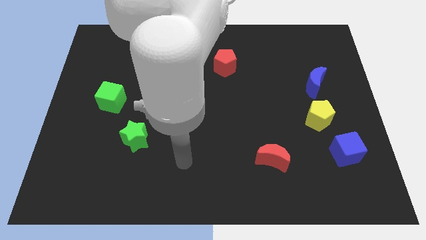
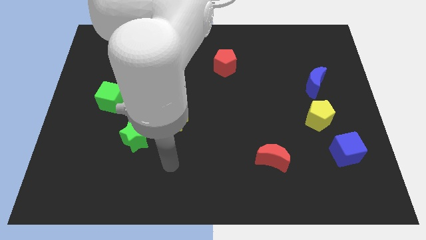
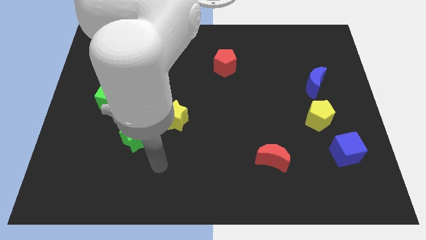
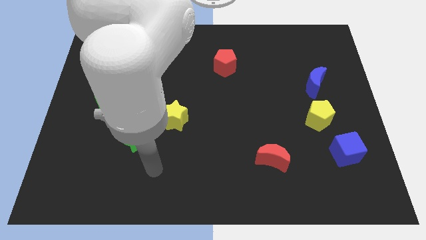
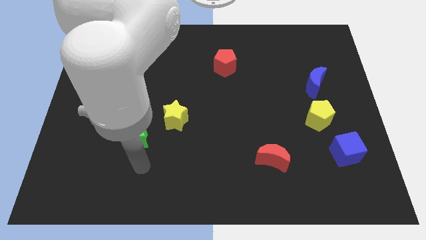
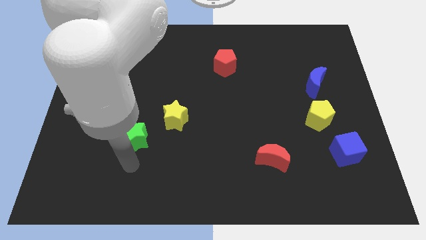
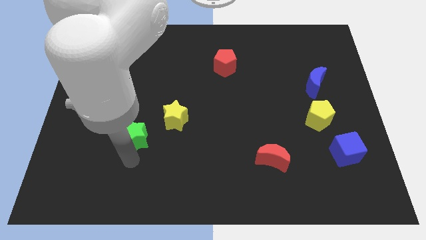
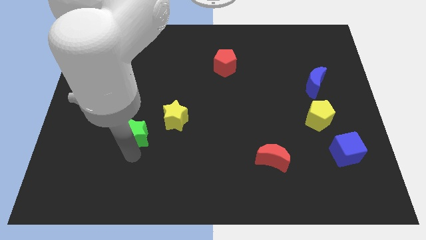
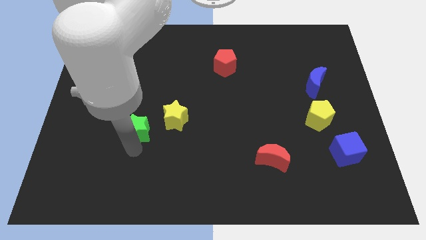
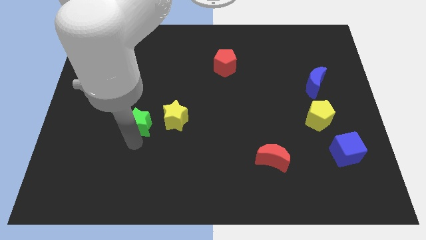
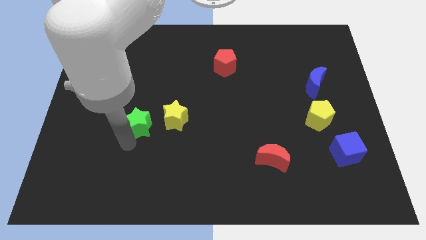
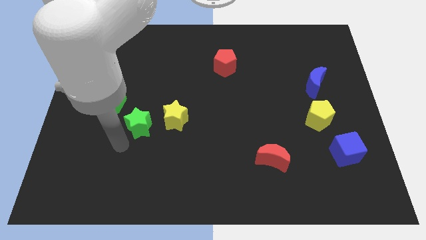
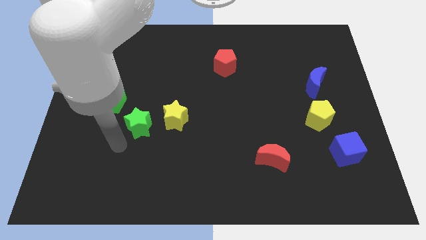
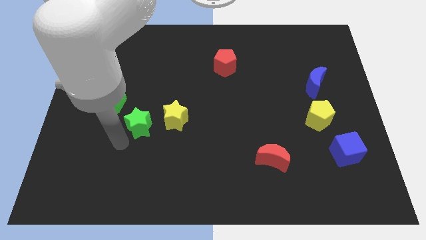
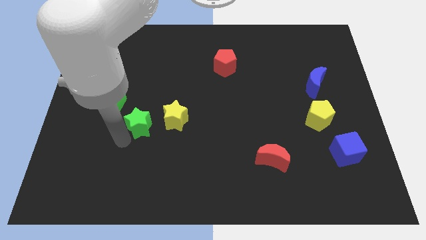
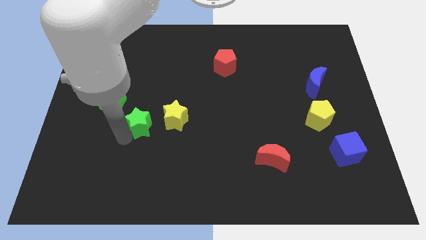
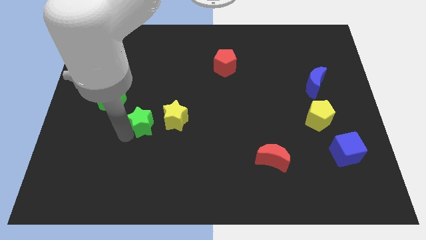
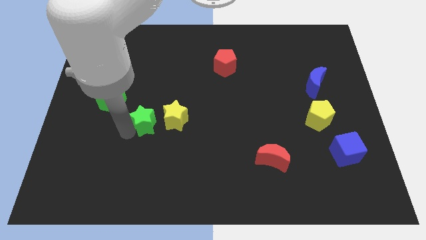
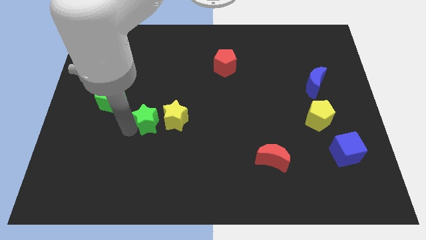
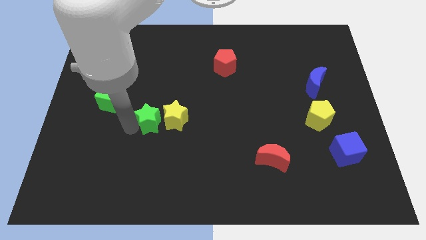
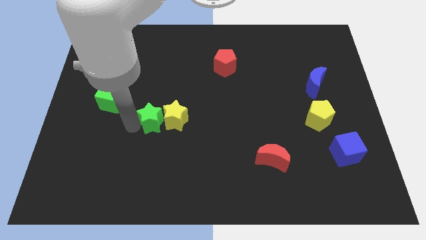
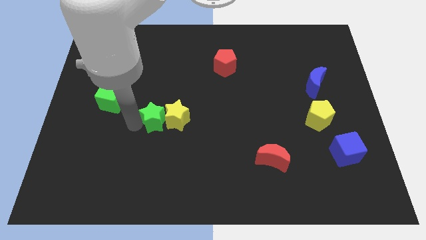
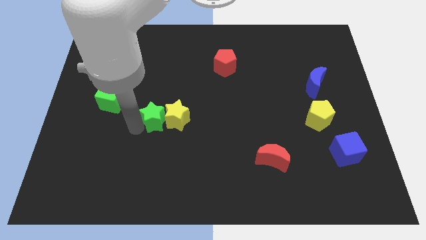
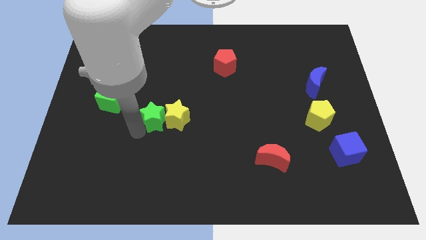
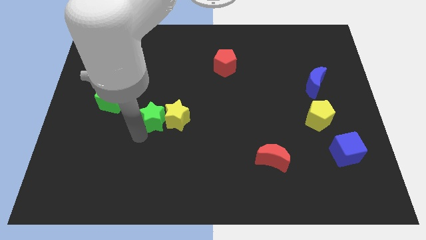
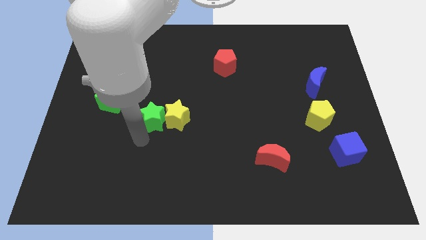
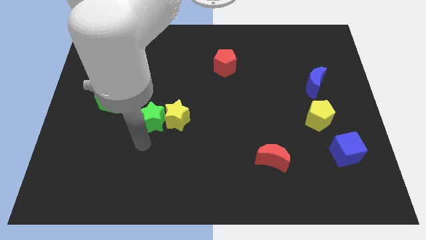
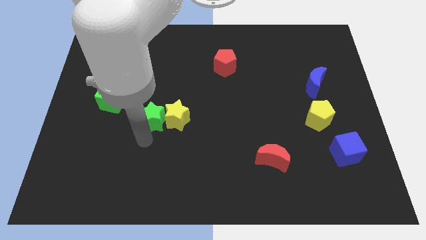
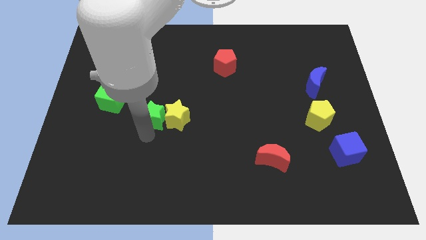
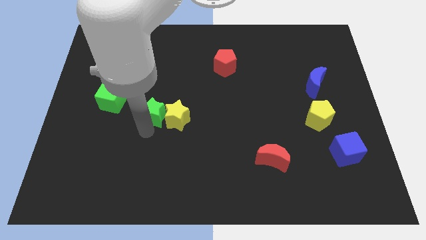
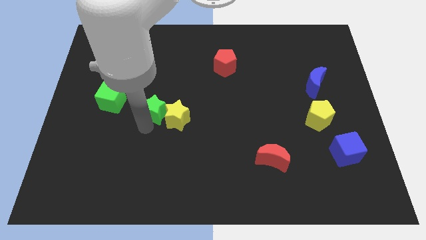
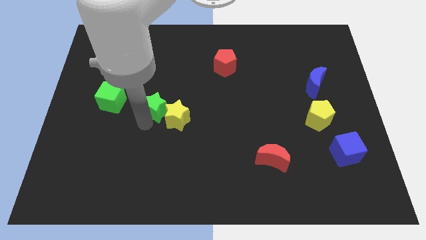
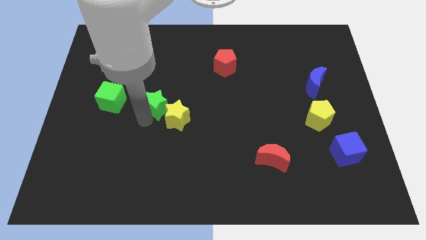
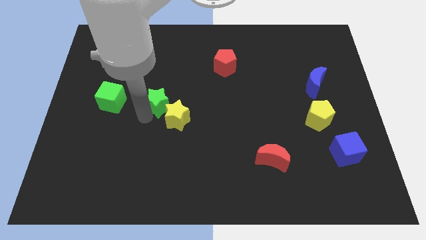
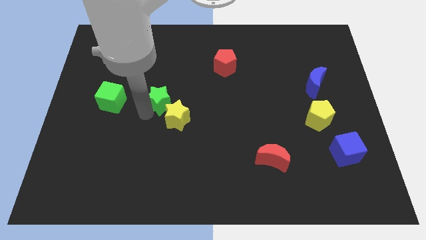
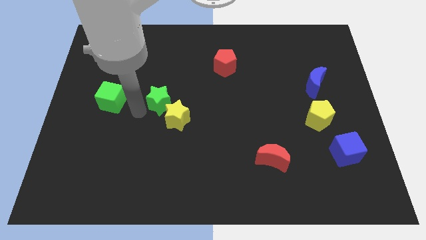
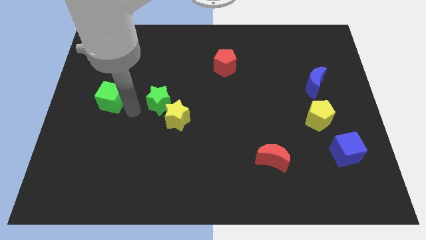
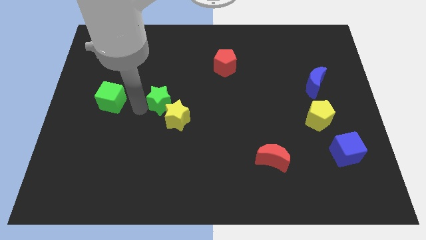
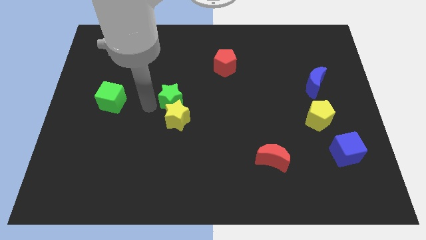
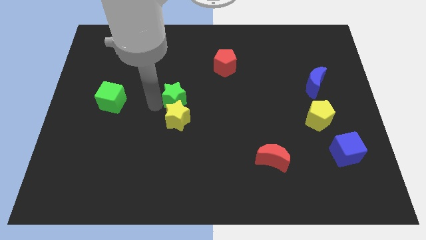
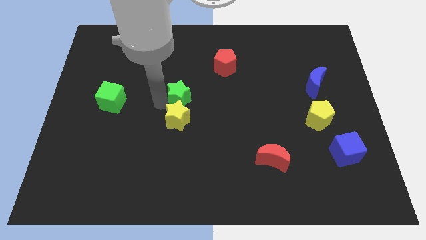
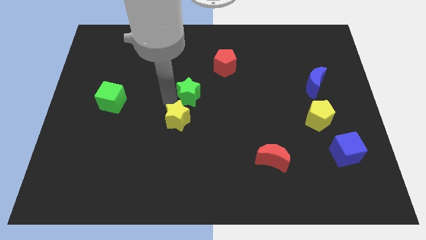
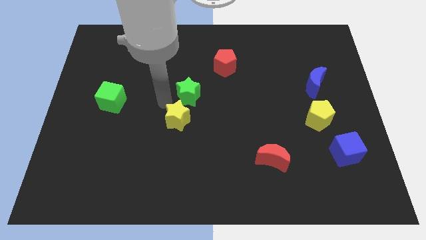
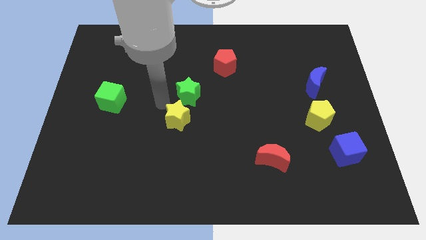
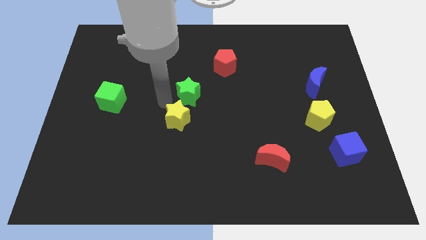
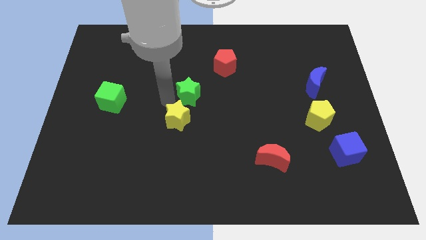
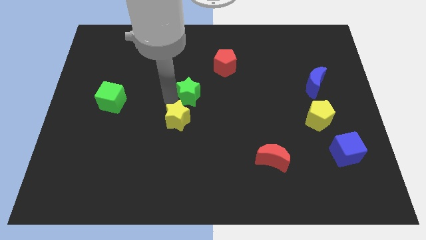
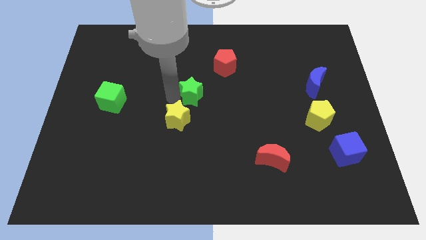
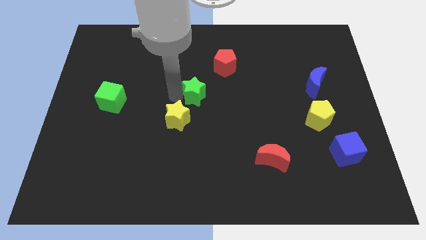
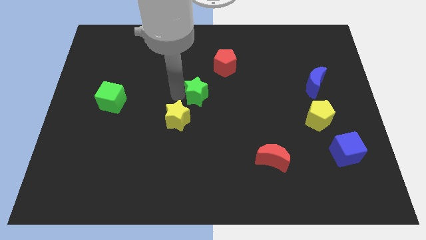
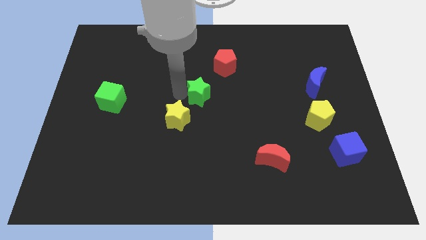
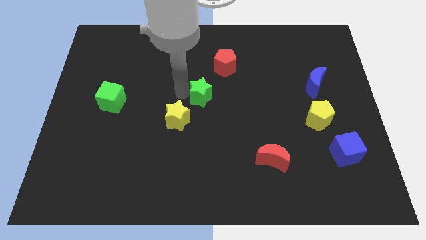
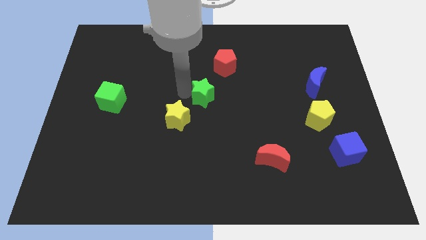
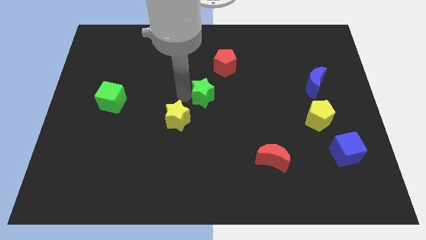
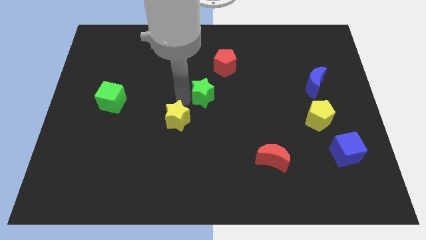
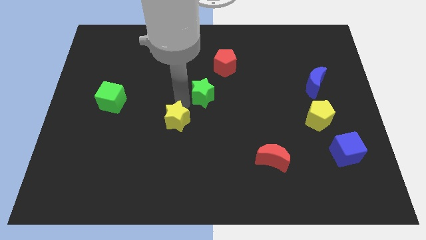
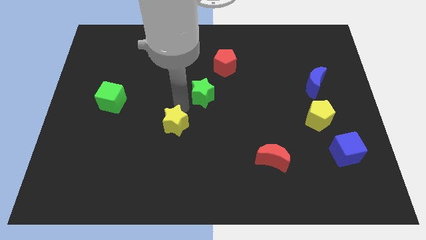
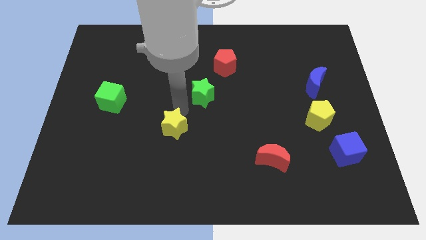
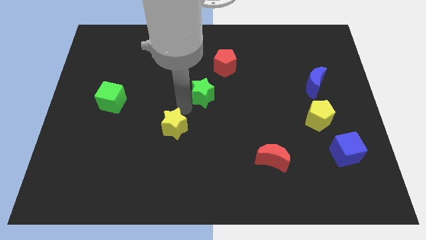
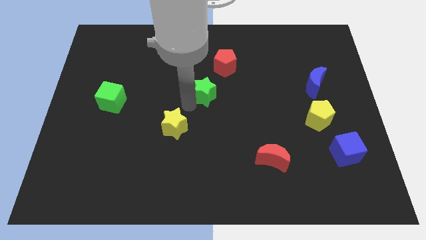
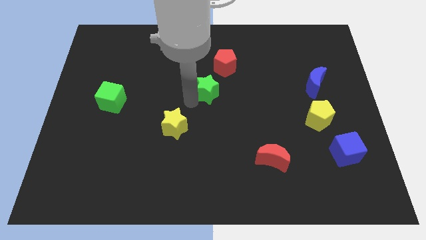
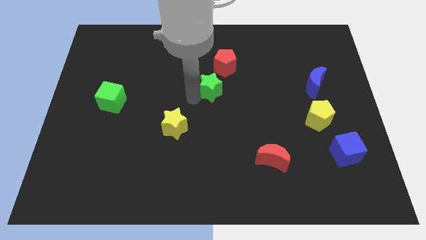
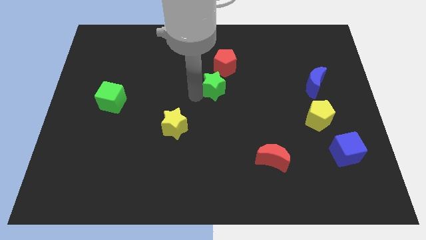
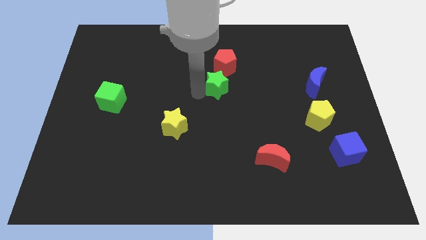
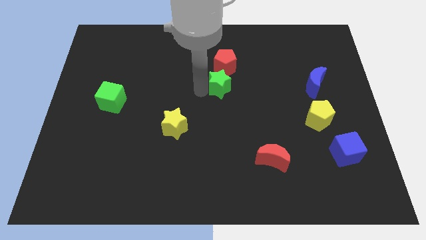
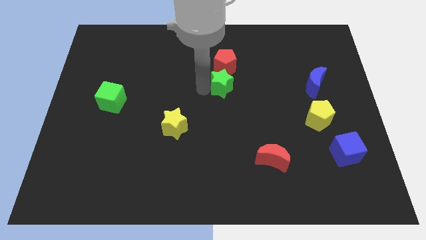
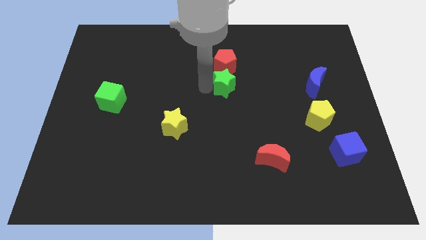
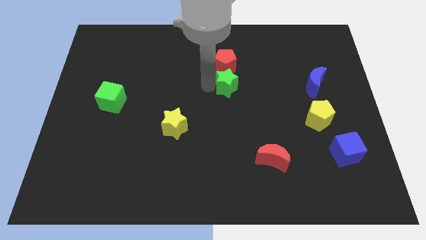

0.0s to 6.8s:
move the green star diagonally down and to the right of the red pentagon
